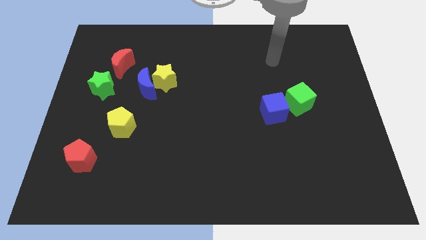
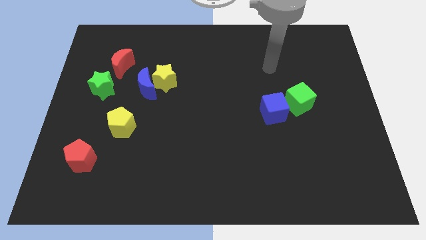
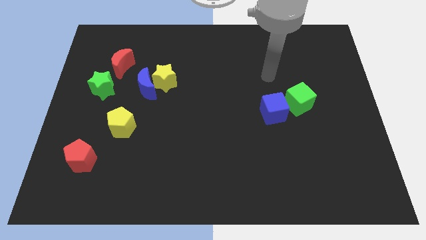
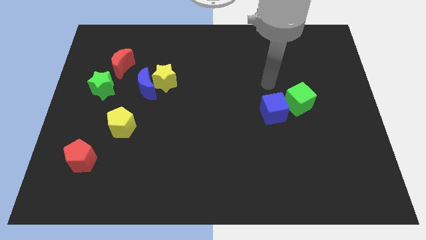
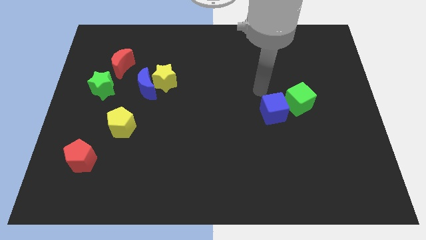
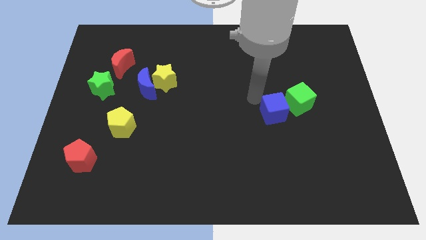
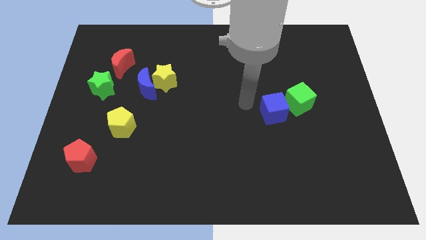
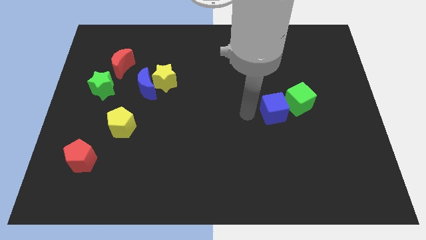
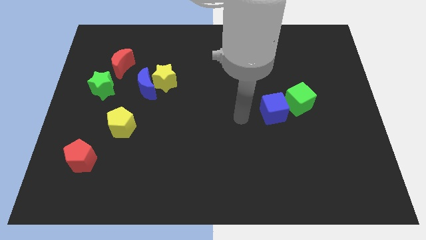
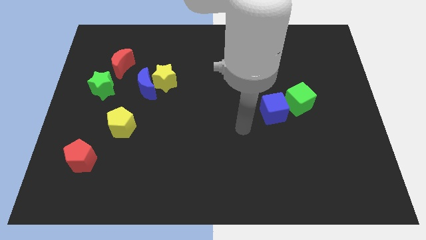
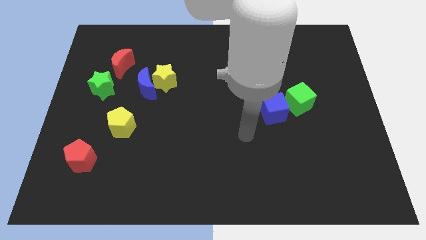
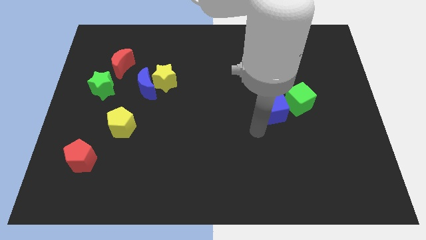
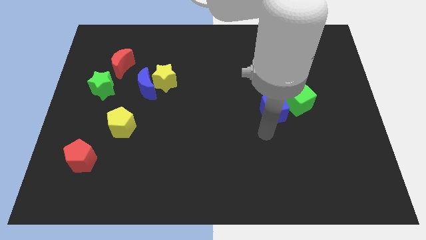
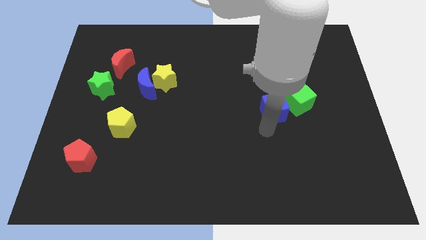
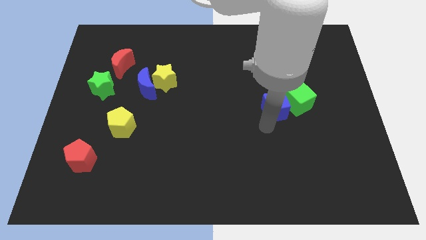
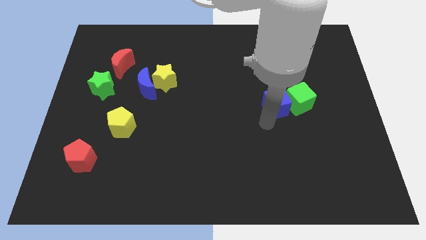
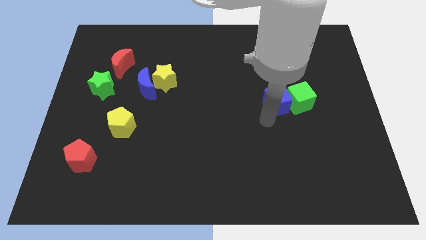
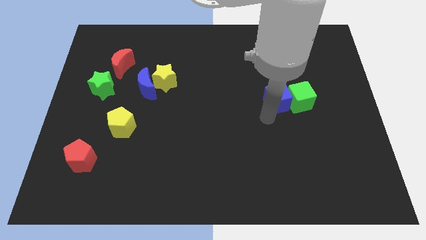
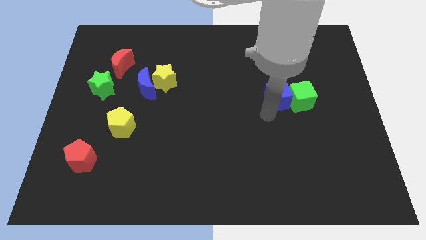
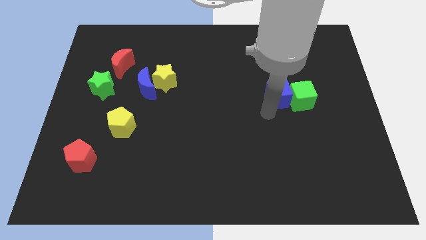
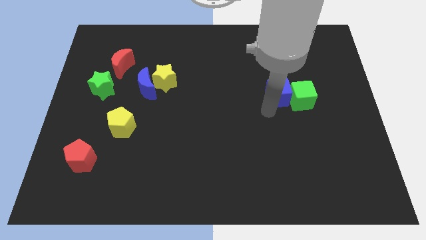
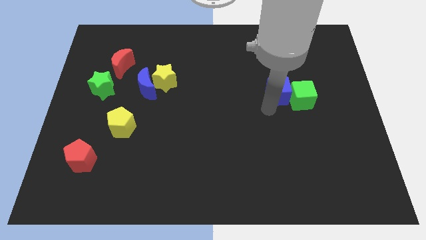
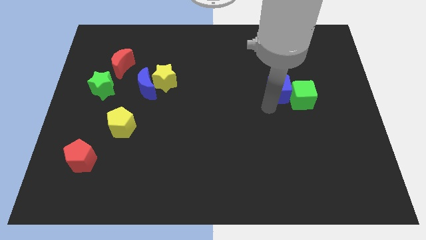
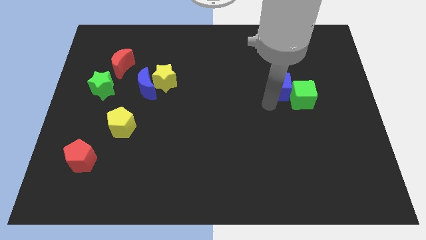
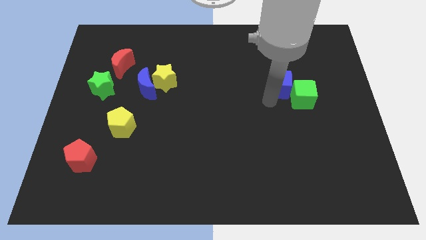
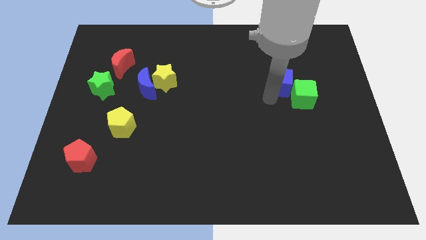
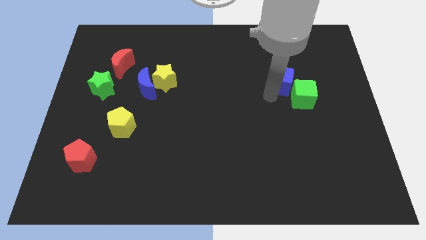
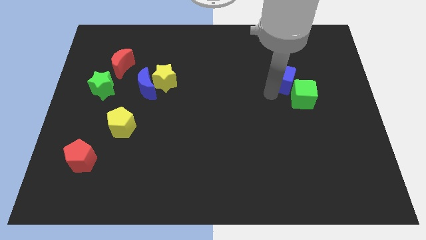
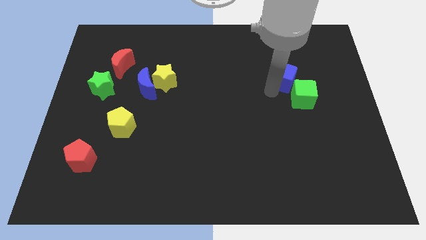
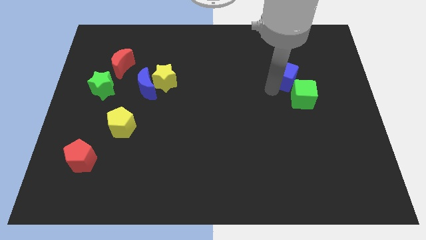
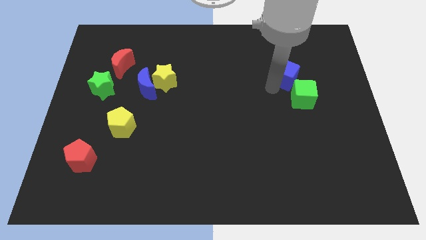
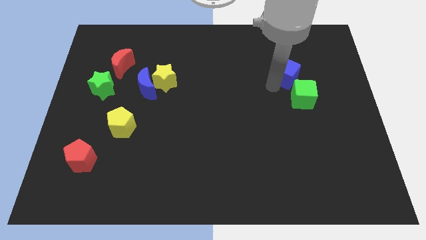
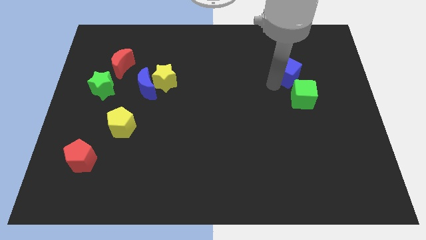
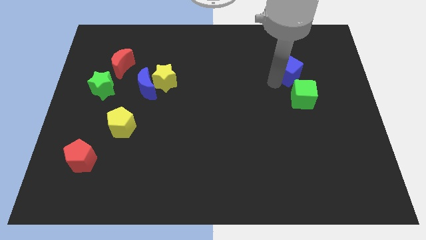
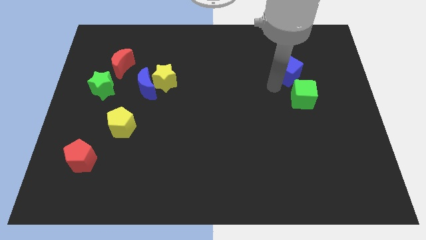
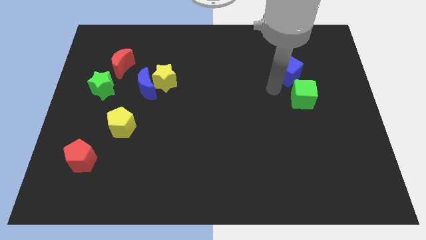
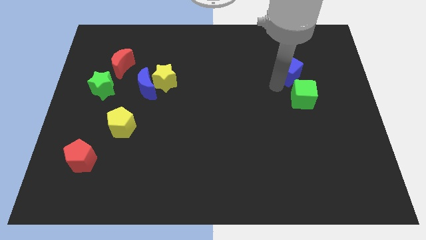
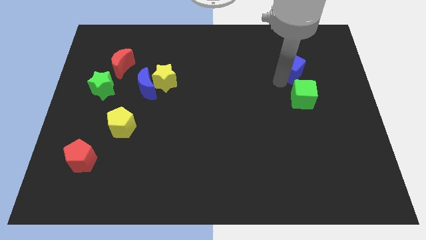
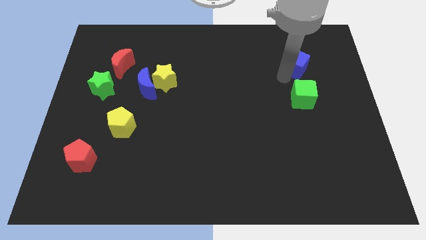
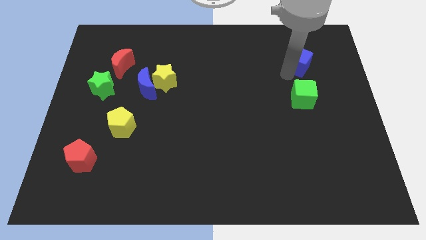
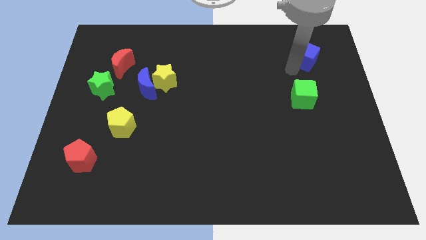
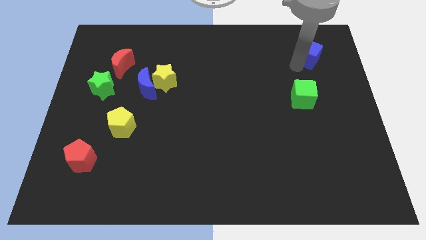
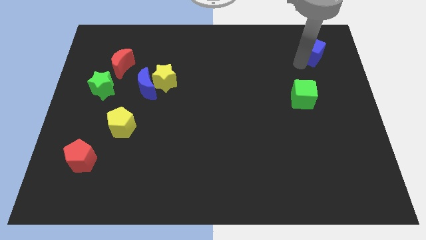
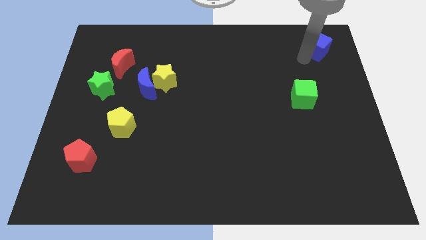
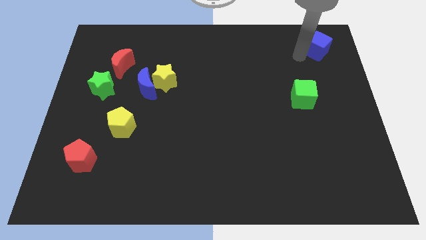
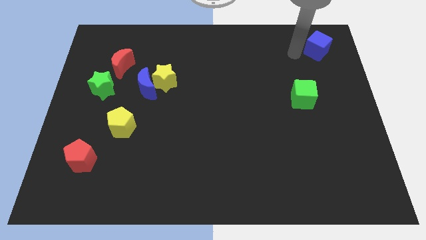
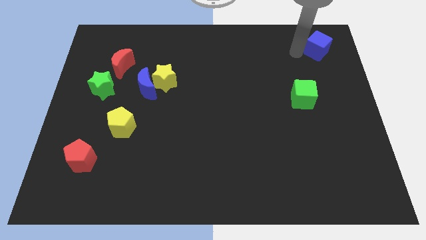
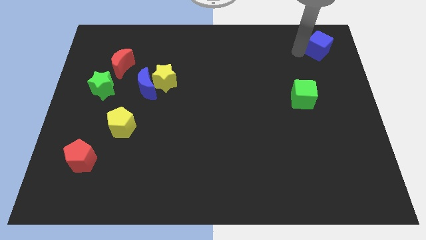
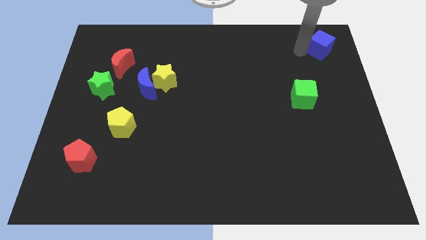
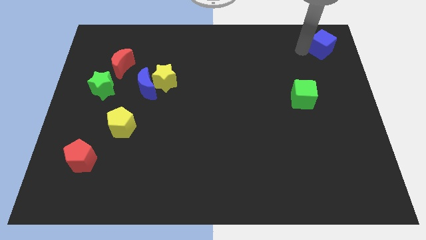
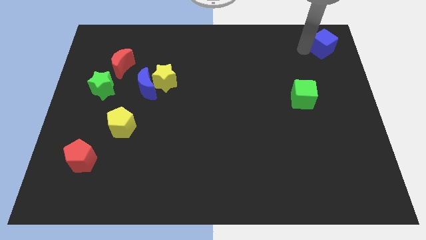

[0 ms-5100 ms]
push the blue cube to the upper right corner

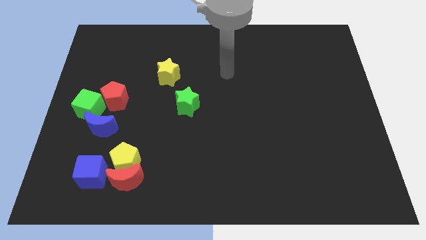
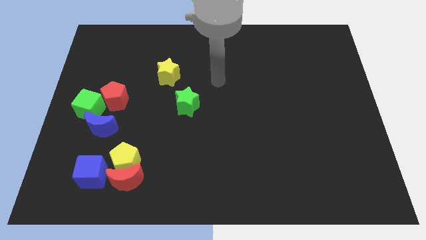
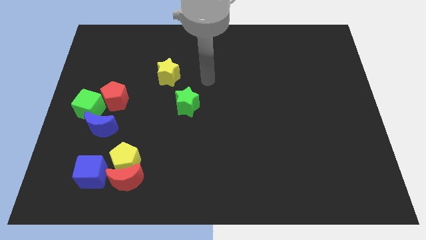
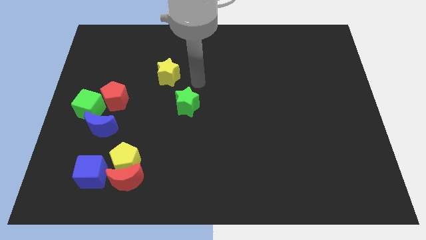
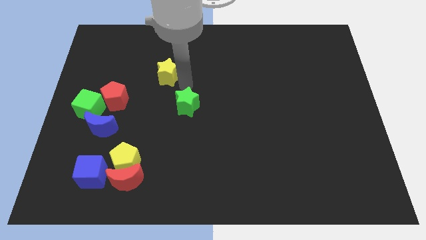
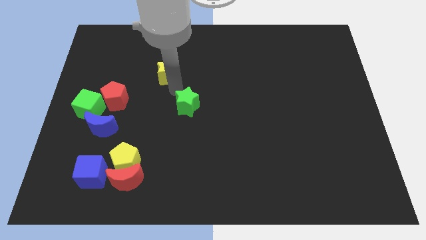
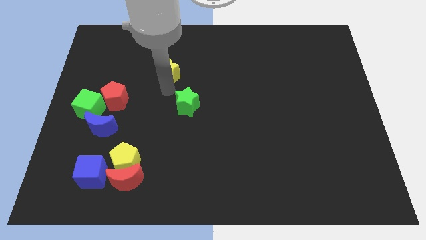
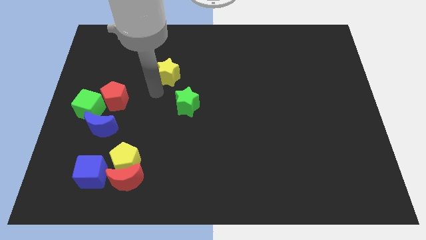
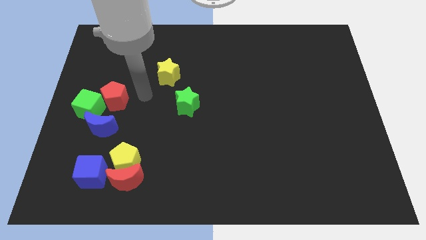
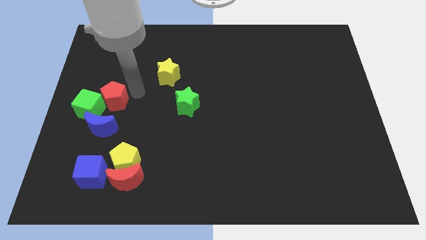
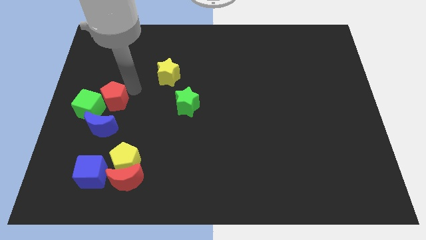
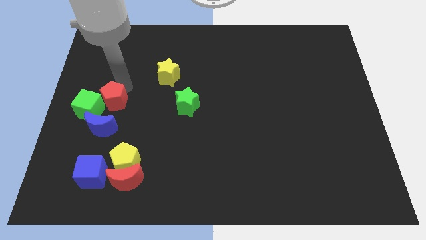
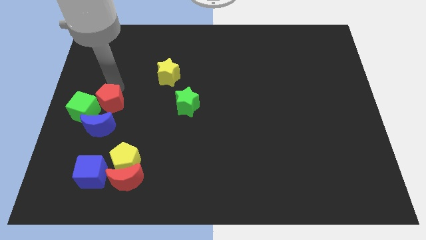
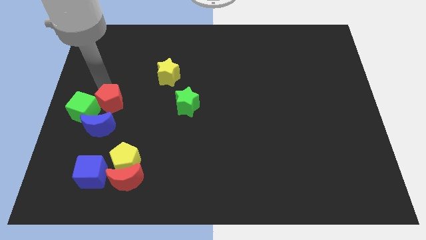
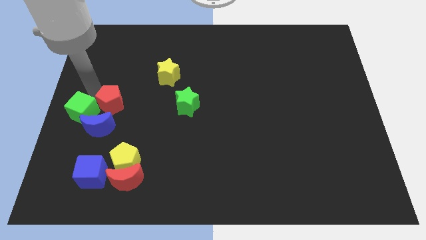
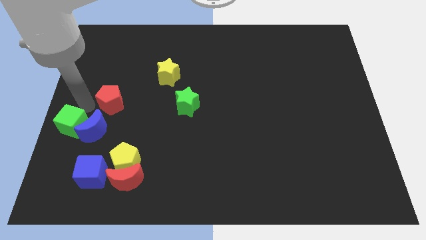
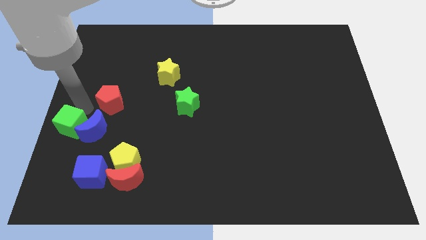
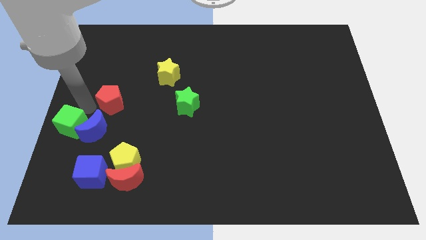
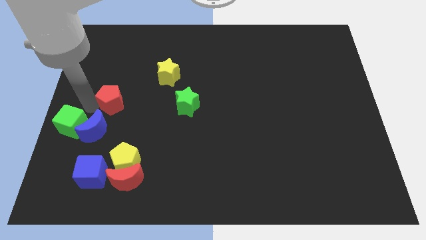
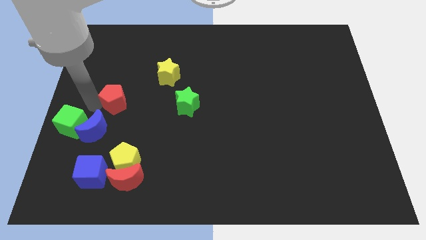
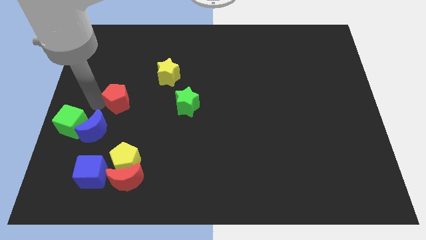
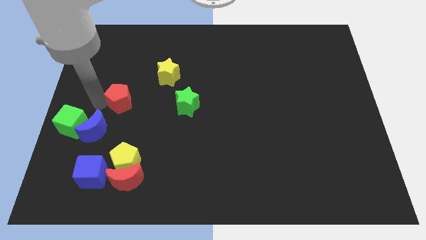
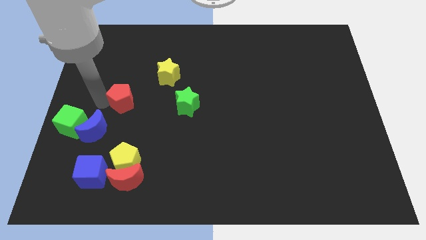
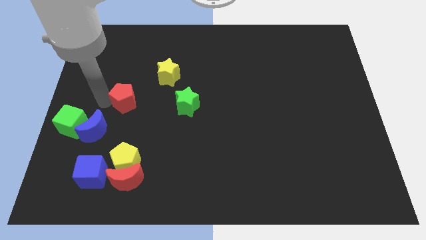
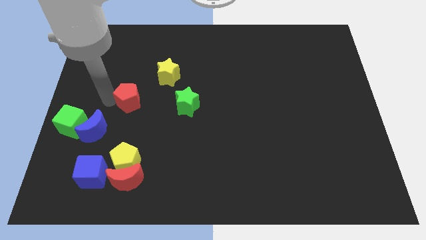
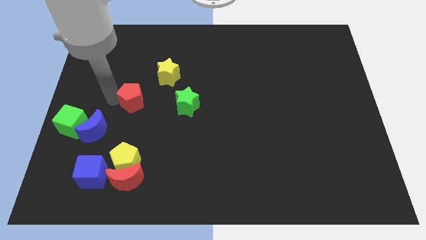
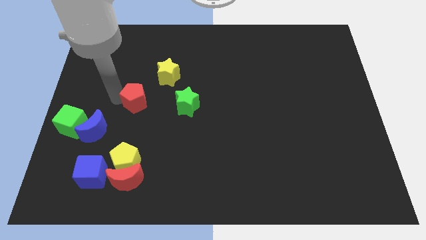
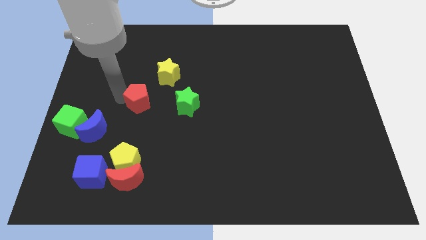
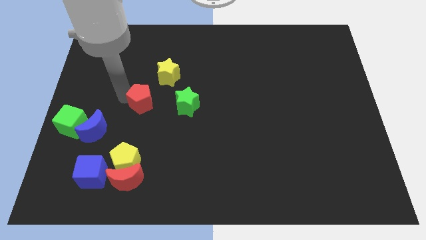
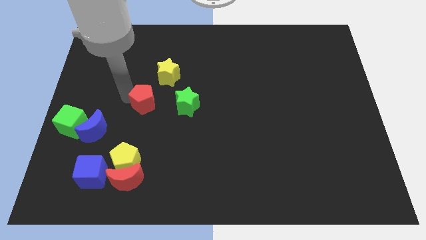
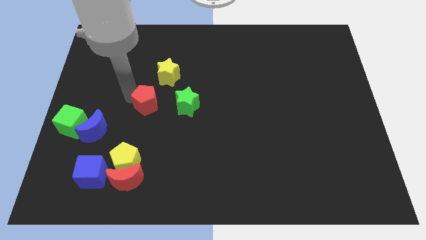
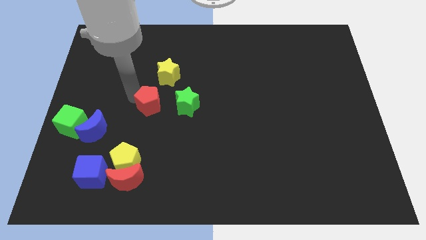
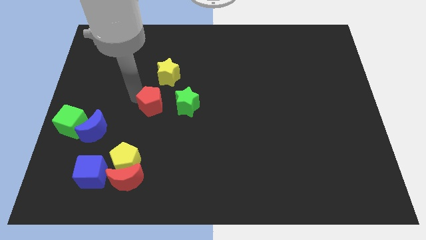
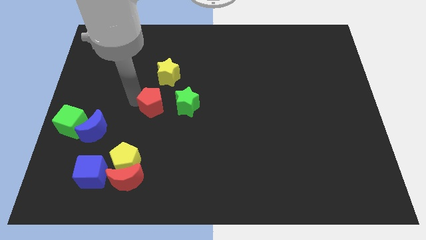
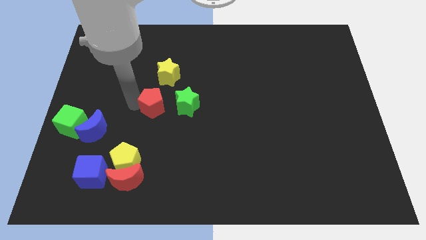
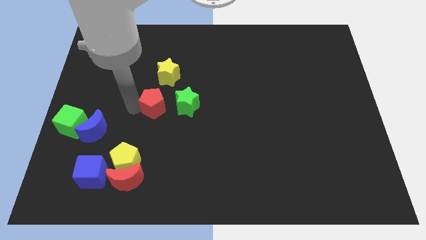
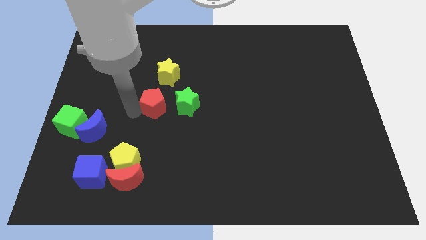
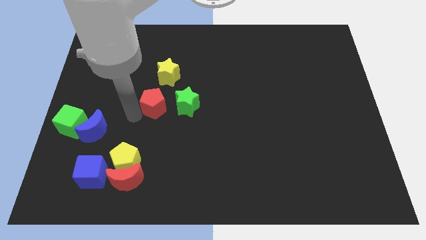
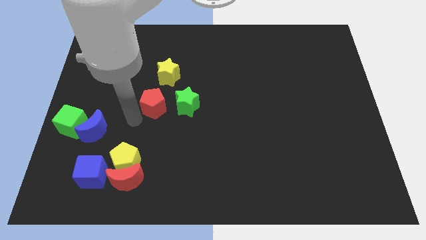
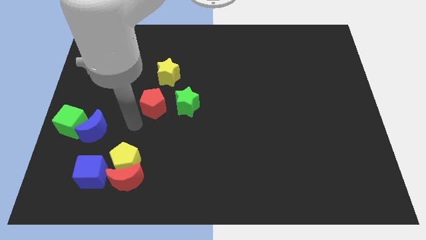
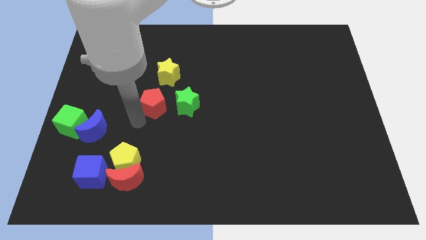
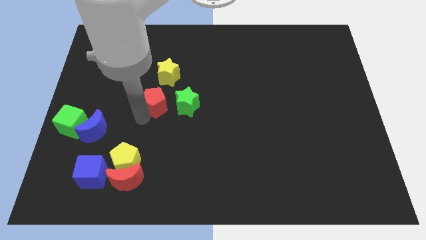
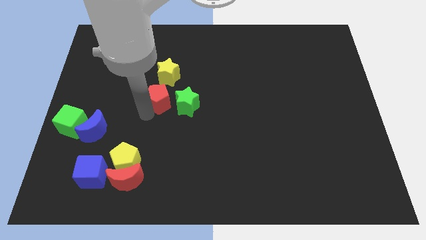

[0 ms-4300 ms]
push the red pentagon to the middle of the board
